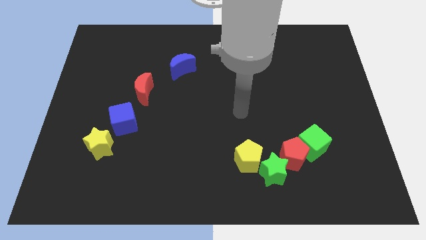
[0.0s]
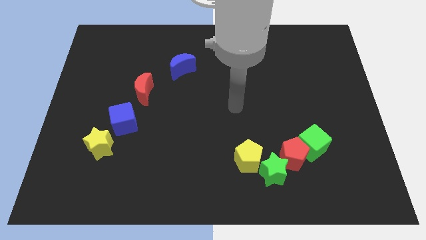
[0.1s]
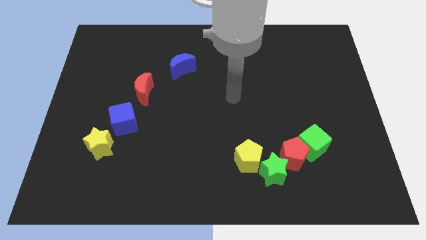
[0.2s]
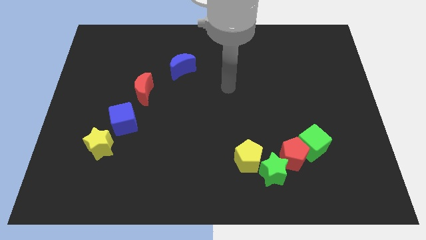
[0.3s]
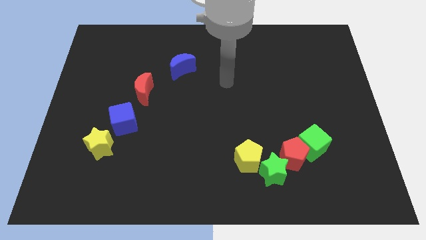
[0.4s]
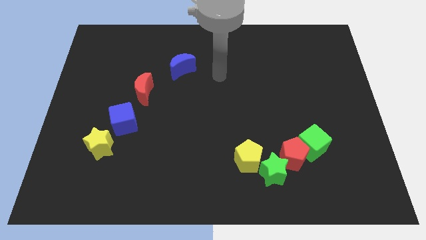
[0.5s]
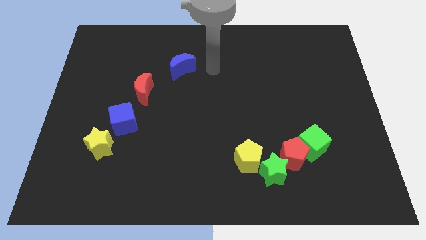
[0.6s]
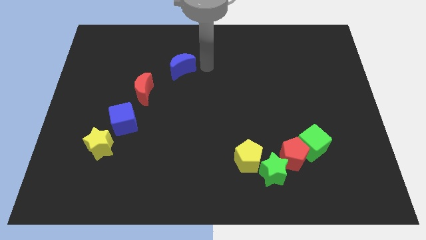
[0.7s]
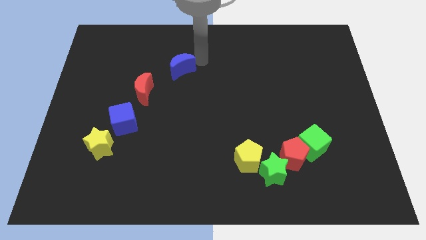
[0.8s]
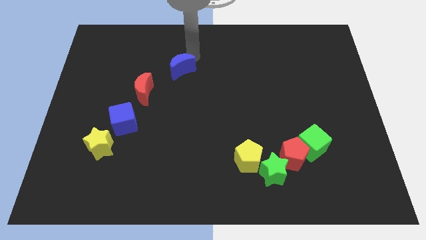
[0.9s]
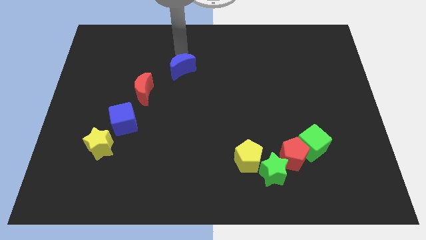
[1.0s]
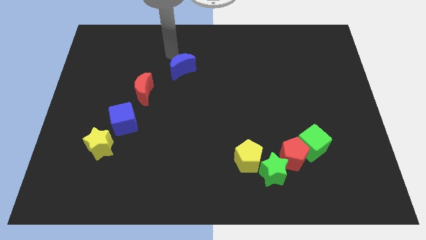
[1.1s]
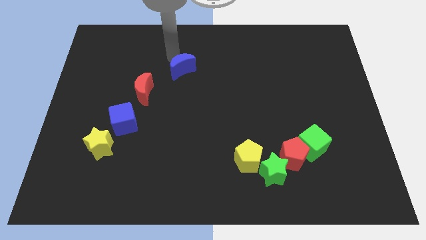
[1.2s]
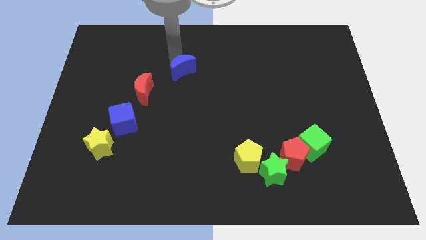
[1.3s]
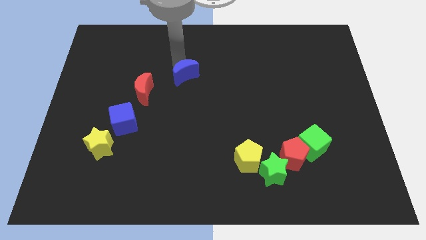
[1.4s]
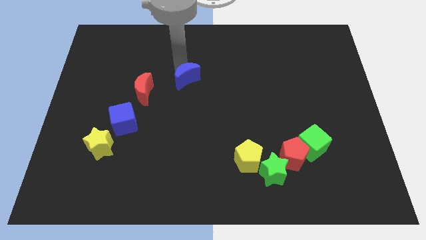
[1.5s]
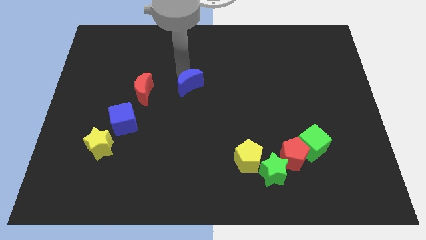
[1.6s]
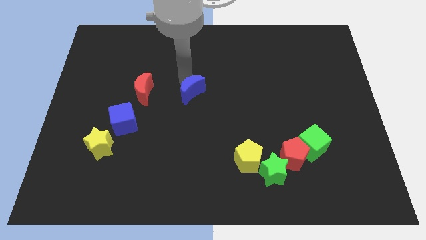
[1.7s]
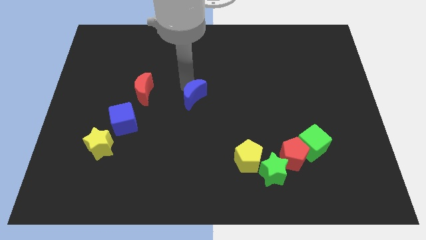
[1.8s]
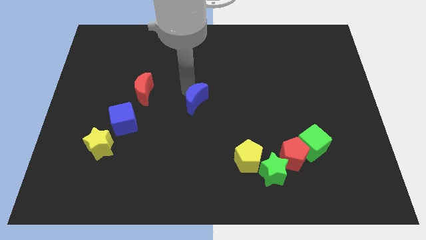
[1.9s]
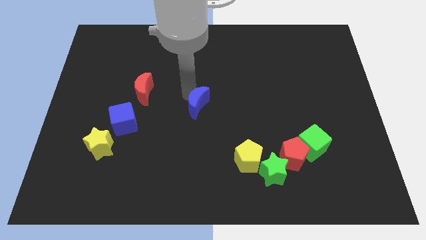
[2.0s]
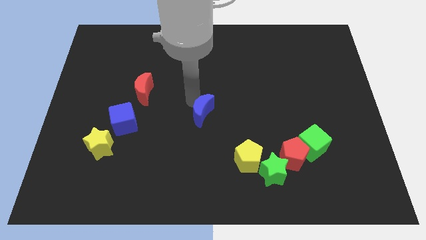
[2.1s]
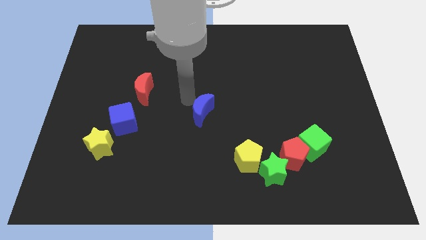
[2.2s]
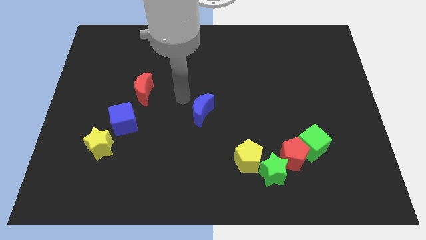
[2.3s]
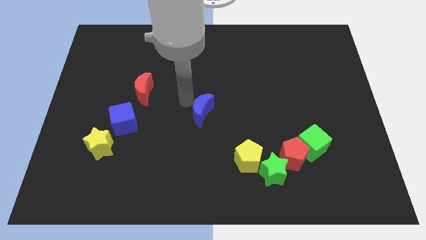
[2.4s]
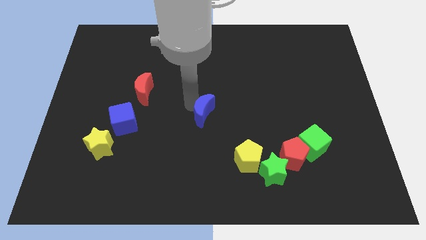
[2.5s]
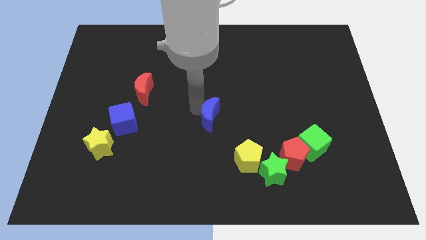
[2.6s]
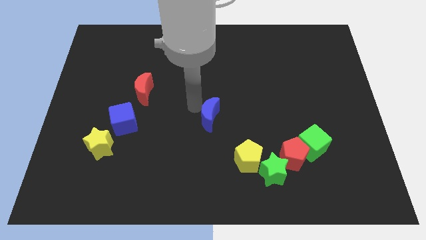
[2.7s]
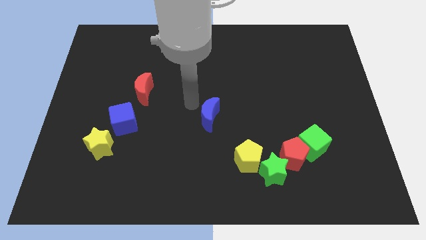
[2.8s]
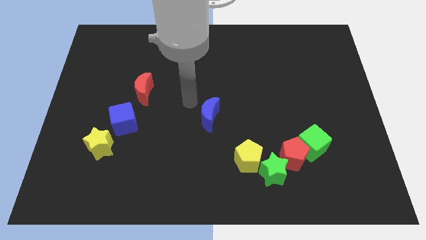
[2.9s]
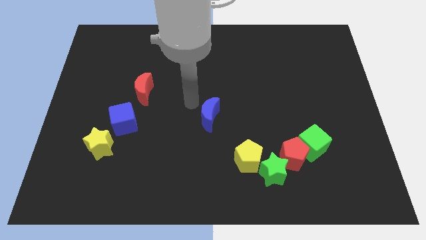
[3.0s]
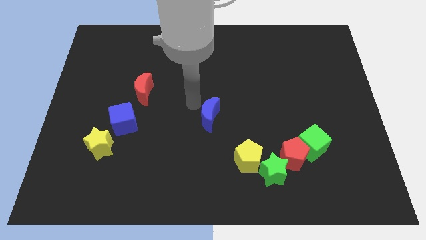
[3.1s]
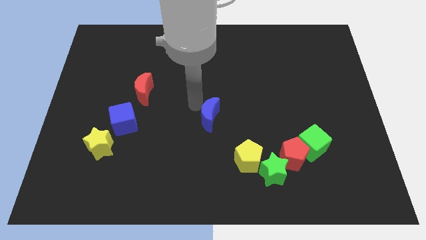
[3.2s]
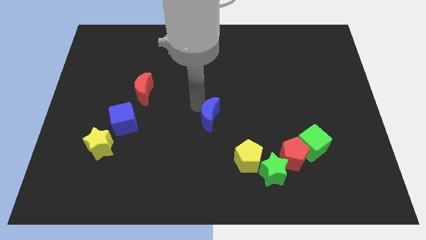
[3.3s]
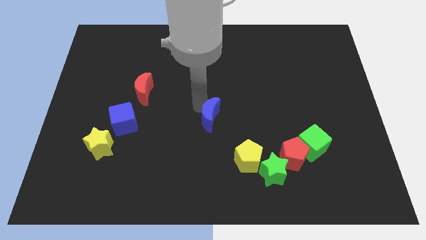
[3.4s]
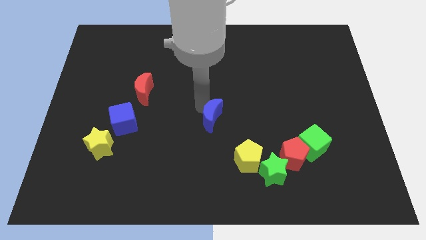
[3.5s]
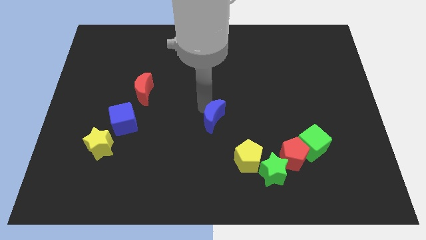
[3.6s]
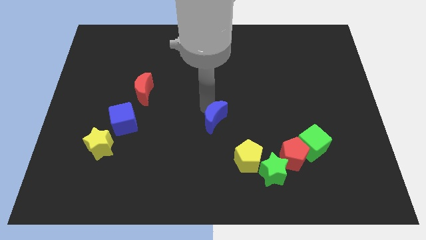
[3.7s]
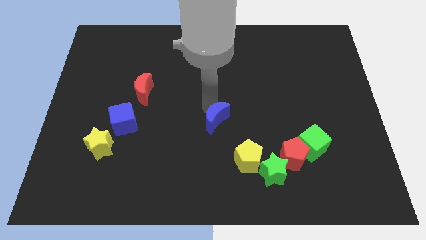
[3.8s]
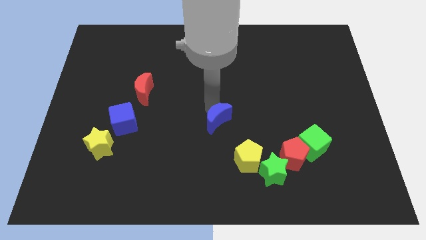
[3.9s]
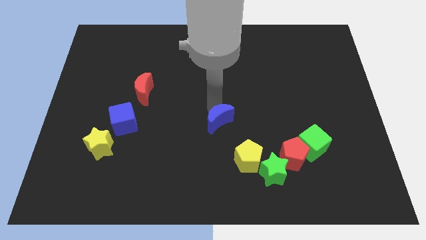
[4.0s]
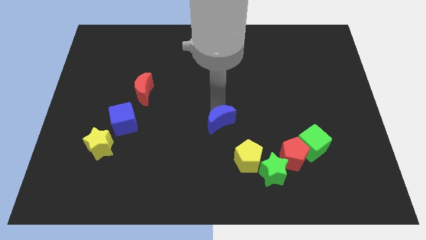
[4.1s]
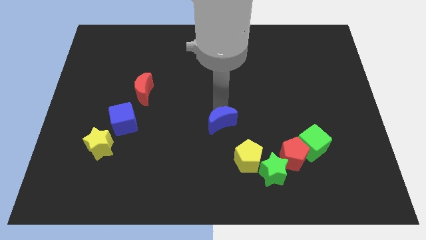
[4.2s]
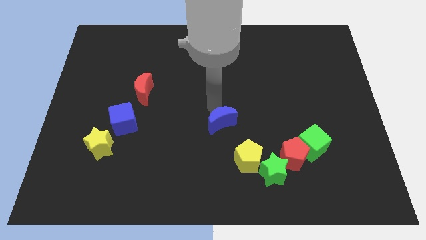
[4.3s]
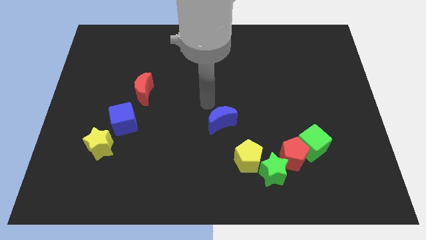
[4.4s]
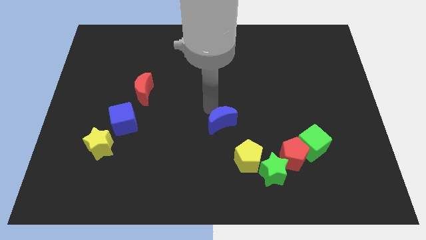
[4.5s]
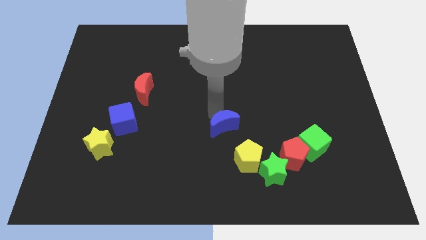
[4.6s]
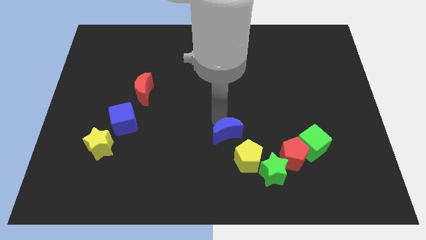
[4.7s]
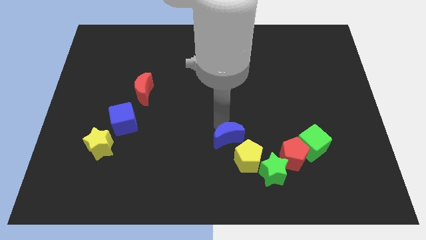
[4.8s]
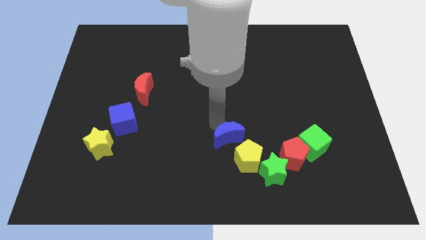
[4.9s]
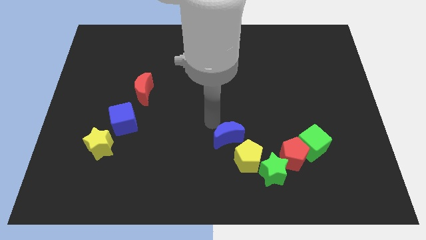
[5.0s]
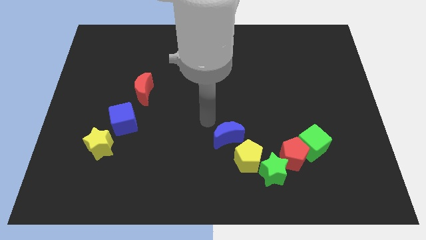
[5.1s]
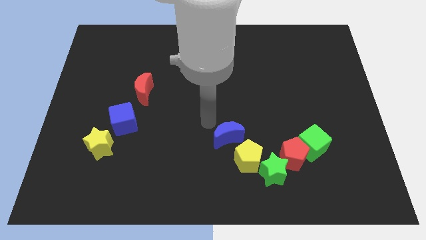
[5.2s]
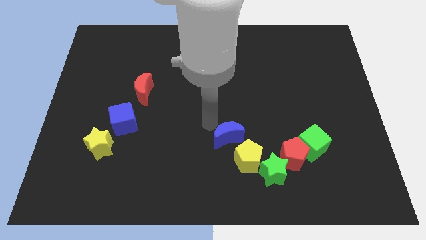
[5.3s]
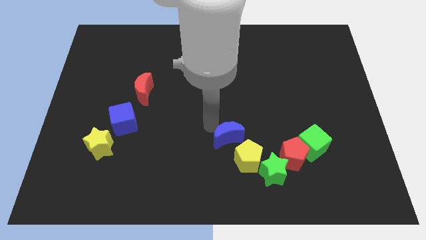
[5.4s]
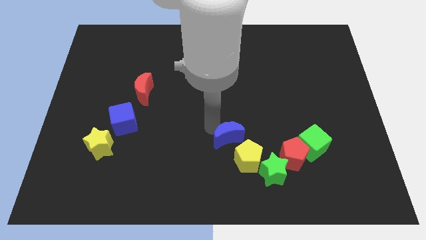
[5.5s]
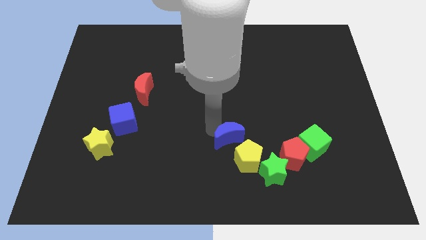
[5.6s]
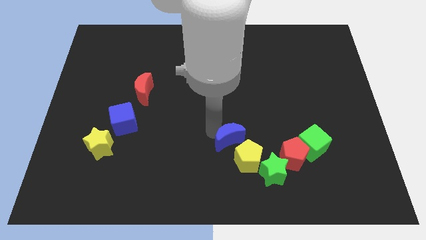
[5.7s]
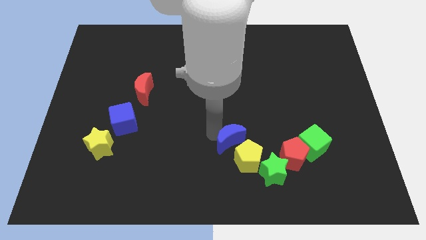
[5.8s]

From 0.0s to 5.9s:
move the blue moon towards the yellow pentagon

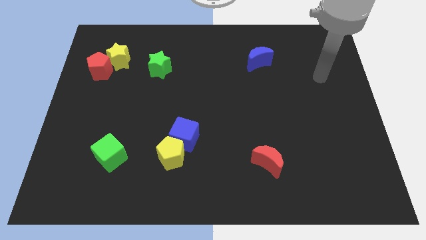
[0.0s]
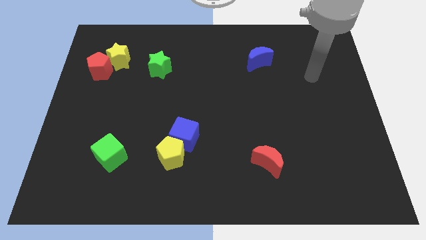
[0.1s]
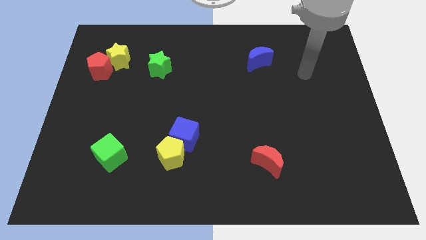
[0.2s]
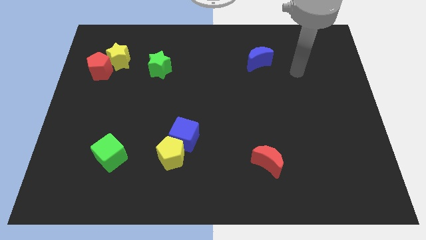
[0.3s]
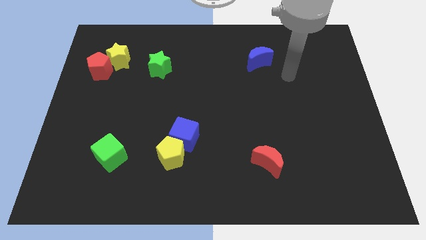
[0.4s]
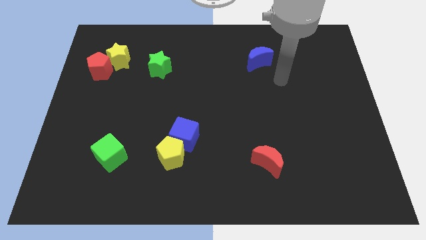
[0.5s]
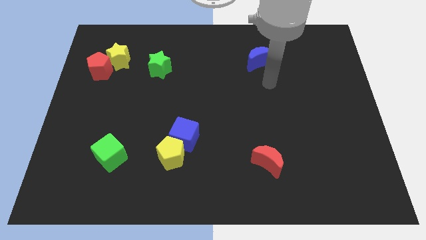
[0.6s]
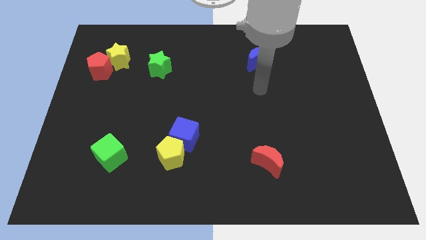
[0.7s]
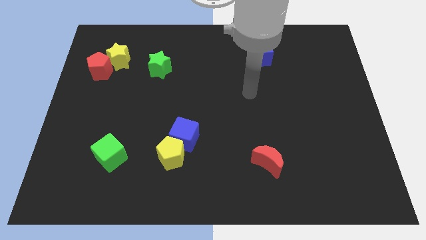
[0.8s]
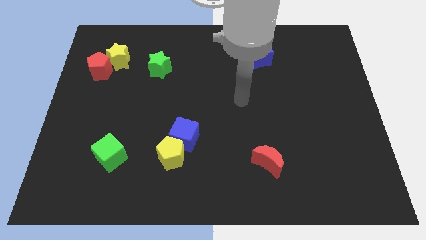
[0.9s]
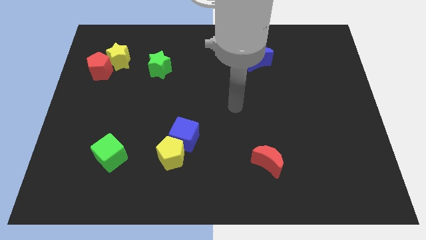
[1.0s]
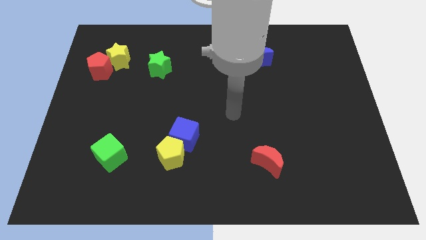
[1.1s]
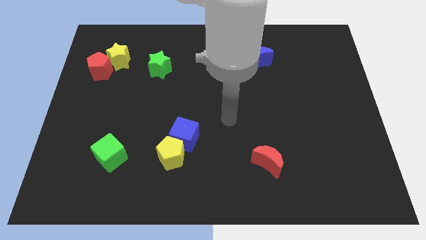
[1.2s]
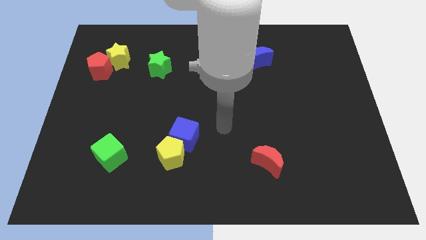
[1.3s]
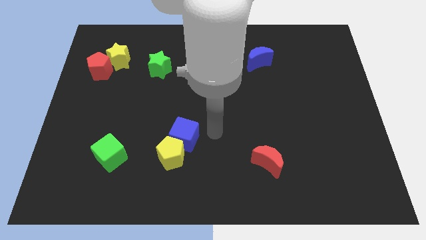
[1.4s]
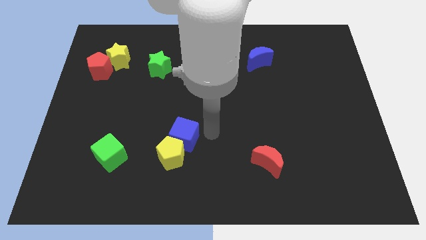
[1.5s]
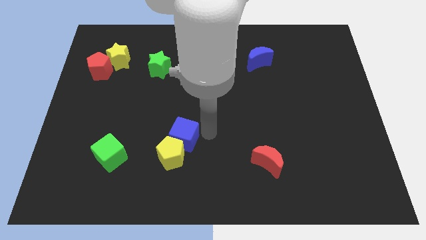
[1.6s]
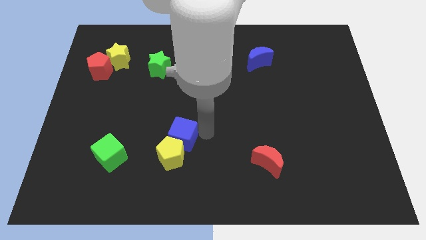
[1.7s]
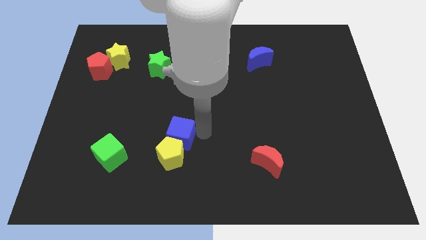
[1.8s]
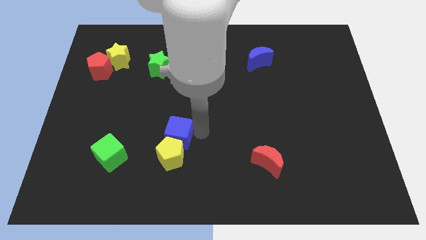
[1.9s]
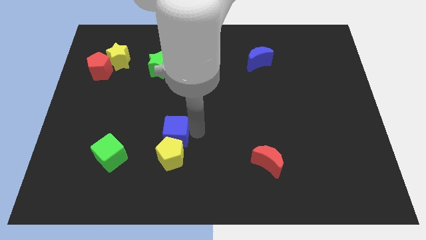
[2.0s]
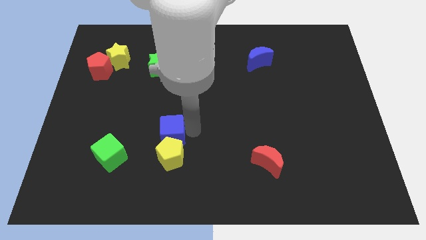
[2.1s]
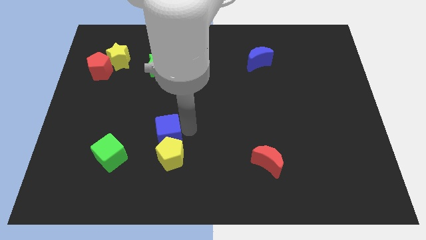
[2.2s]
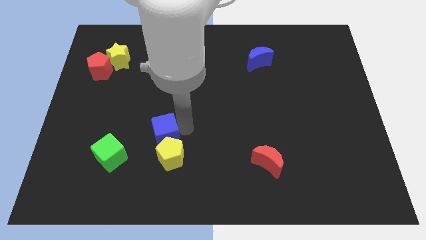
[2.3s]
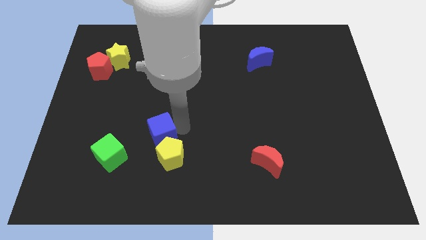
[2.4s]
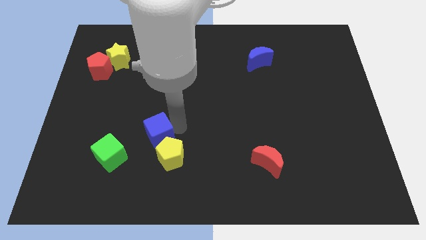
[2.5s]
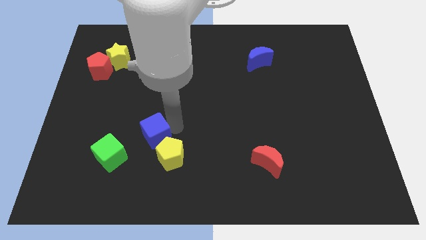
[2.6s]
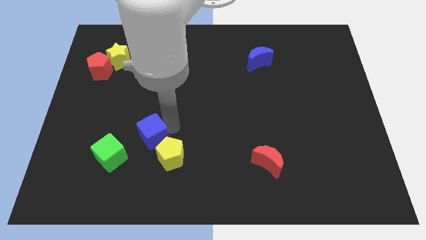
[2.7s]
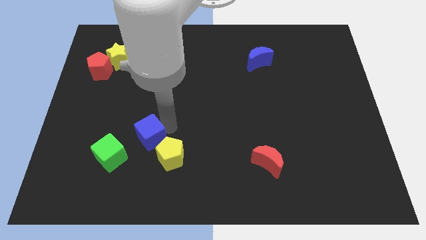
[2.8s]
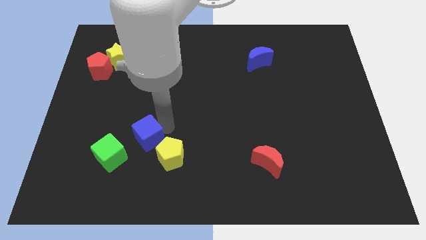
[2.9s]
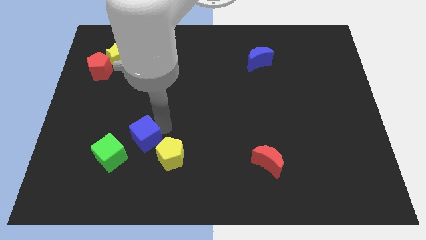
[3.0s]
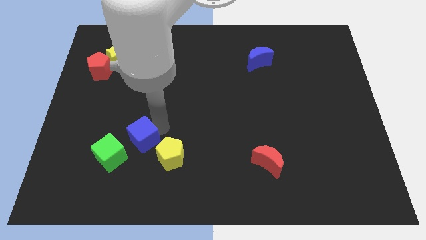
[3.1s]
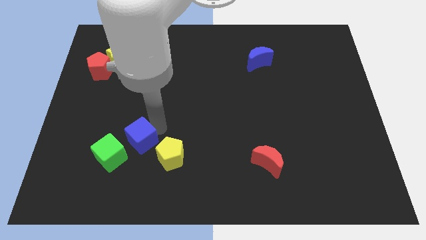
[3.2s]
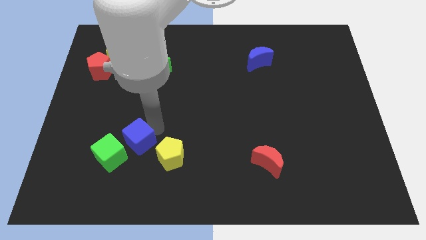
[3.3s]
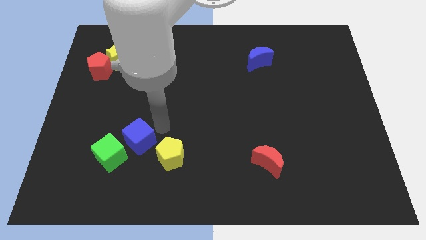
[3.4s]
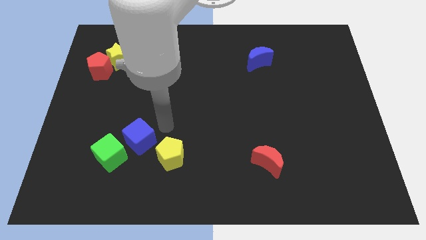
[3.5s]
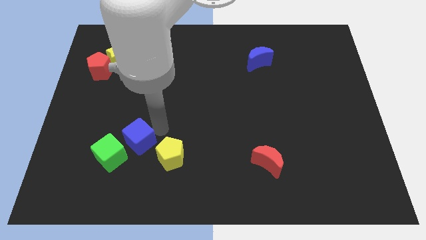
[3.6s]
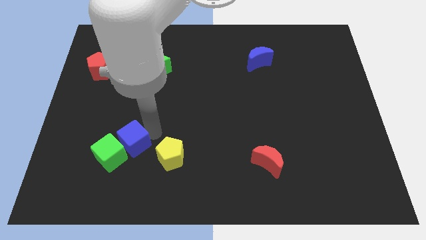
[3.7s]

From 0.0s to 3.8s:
move the blue cube close to the green cube
